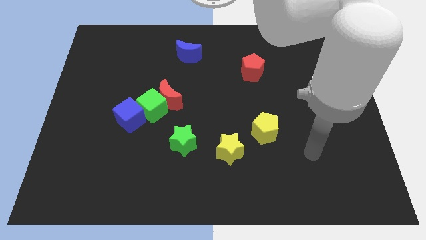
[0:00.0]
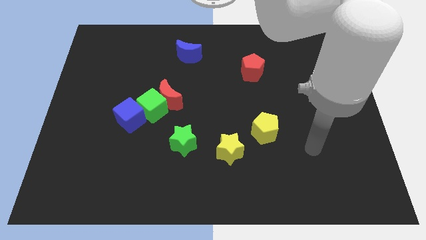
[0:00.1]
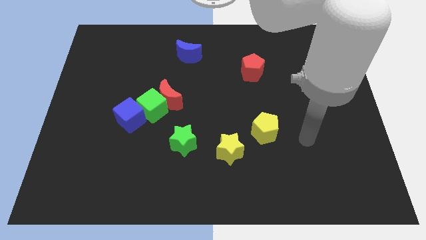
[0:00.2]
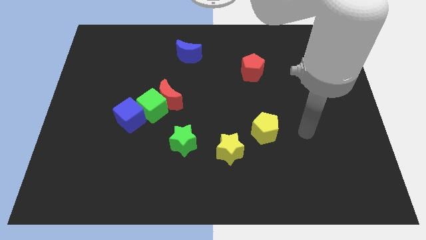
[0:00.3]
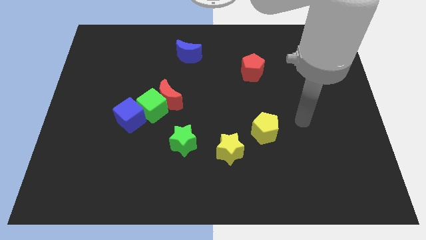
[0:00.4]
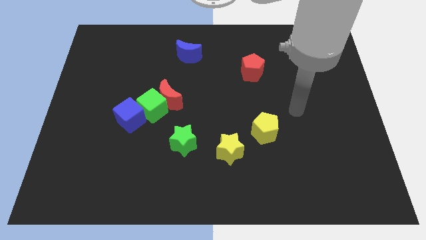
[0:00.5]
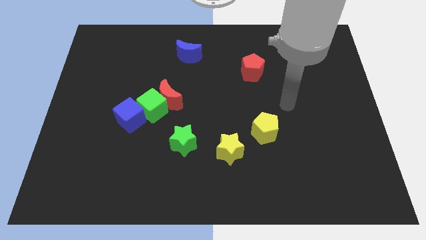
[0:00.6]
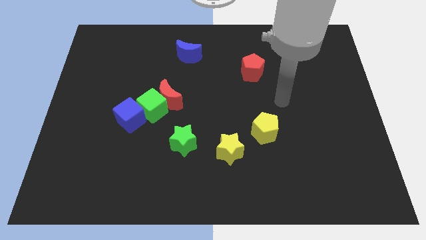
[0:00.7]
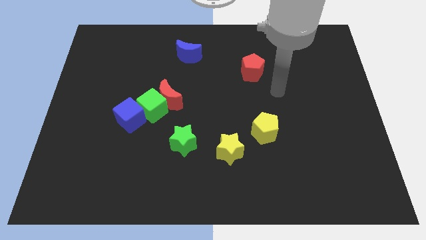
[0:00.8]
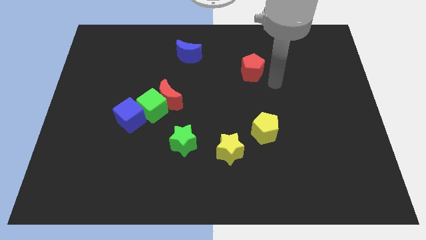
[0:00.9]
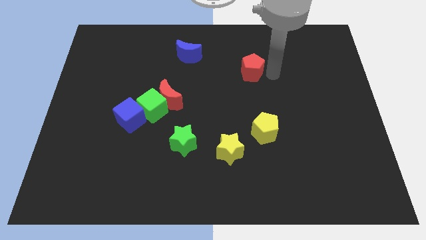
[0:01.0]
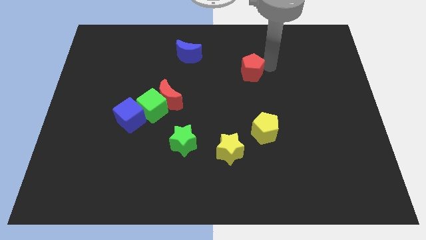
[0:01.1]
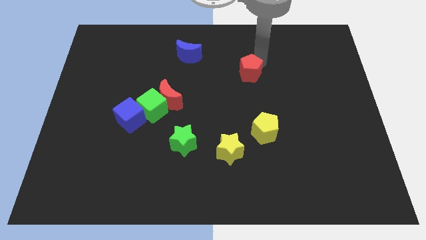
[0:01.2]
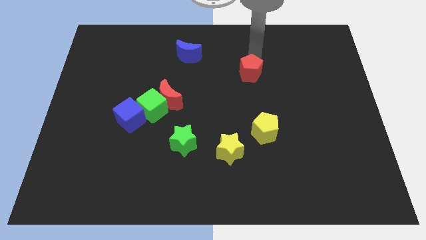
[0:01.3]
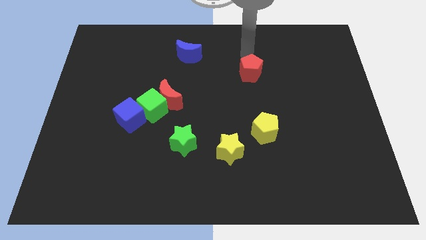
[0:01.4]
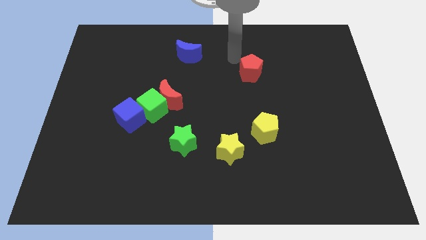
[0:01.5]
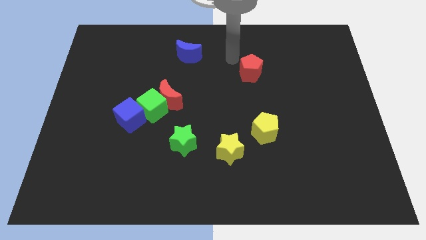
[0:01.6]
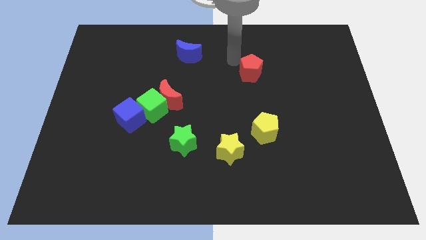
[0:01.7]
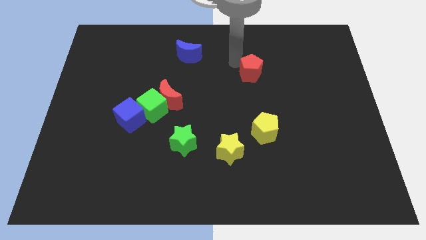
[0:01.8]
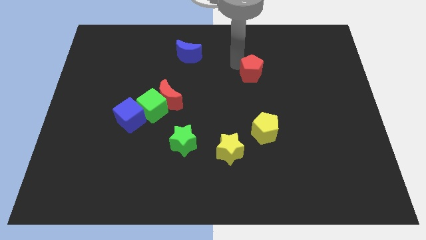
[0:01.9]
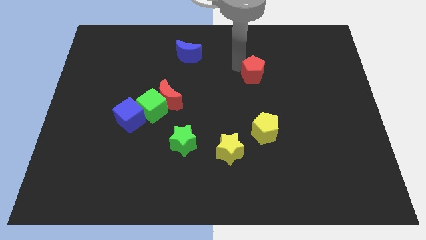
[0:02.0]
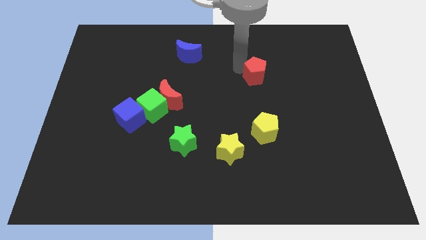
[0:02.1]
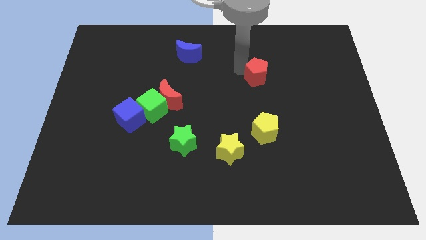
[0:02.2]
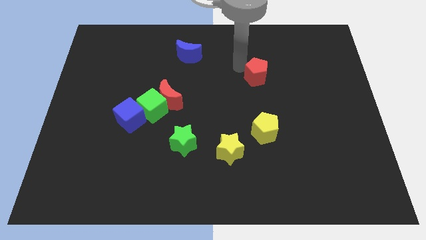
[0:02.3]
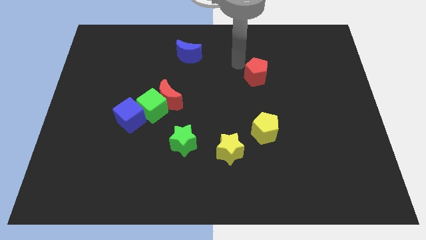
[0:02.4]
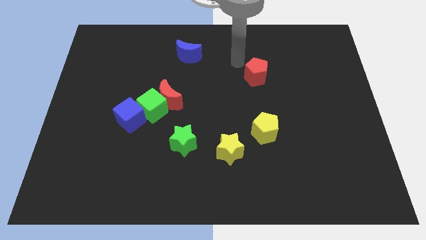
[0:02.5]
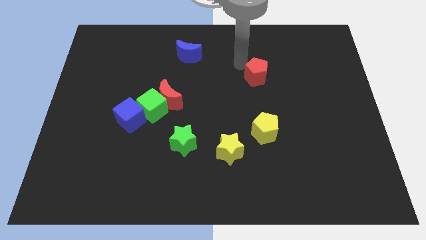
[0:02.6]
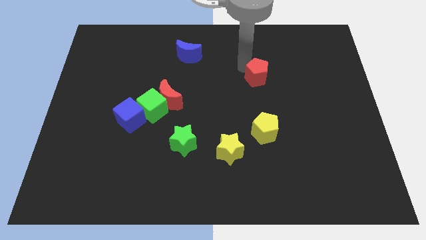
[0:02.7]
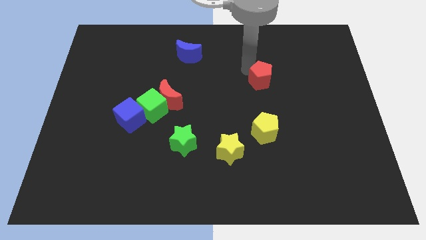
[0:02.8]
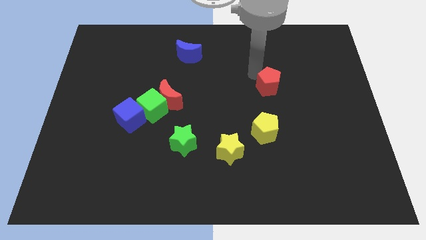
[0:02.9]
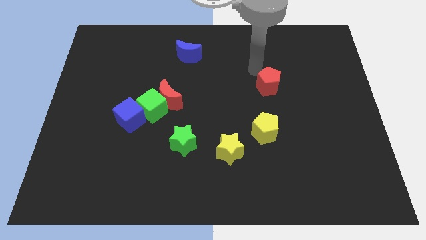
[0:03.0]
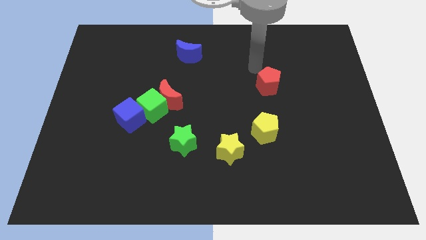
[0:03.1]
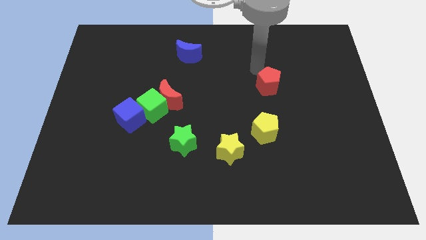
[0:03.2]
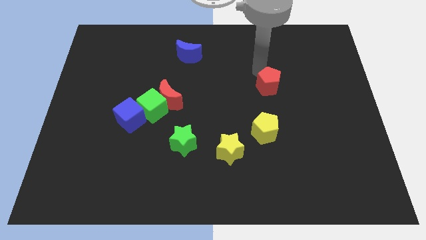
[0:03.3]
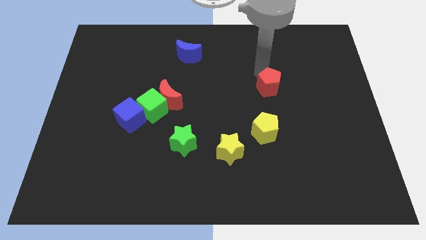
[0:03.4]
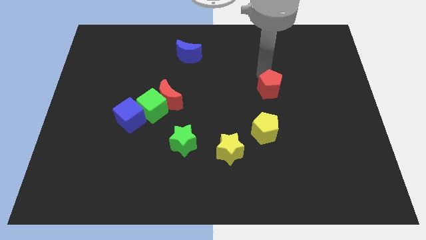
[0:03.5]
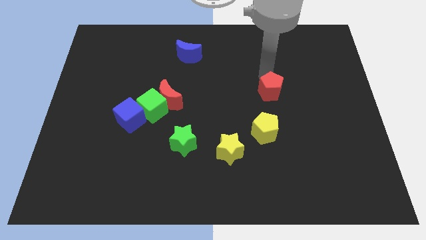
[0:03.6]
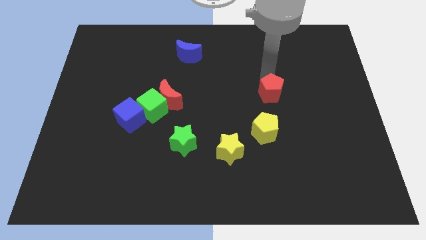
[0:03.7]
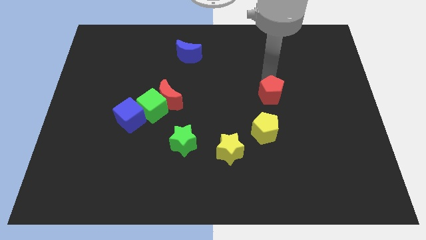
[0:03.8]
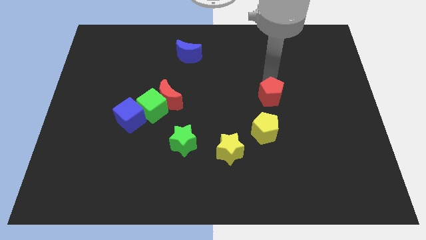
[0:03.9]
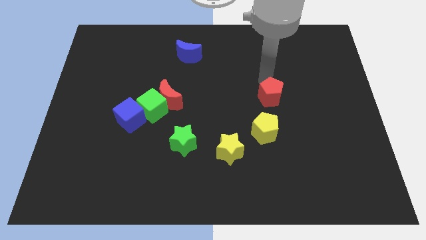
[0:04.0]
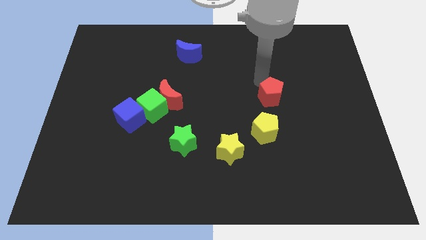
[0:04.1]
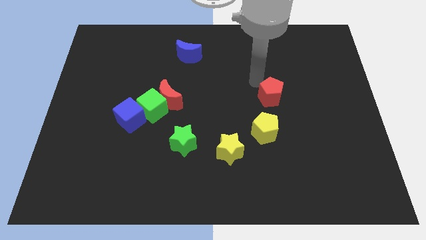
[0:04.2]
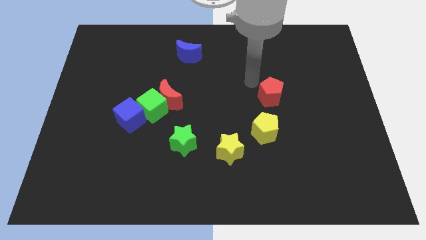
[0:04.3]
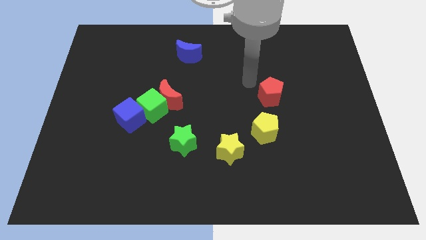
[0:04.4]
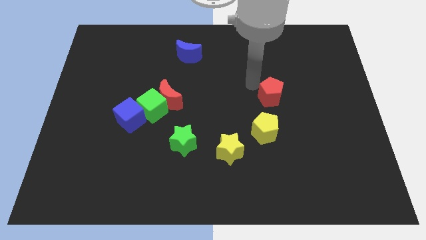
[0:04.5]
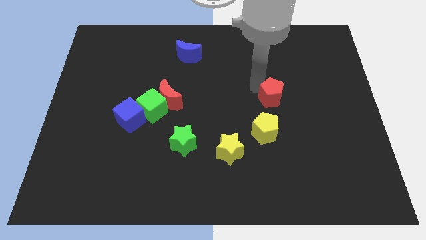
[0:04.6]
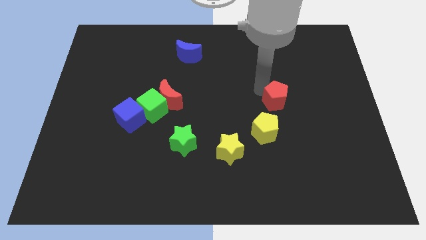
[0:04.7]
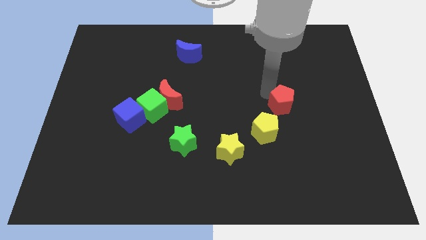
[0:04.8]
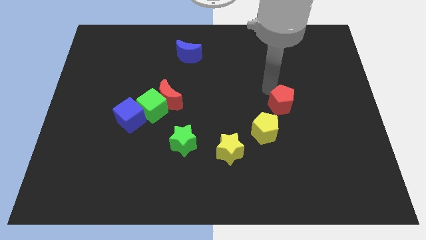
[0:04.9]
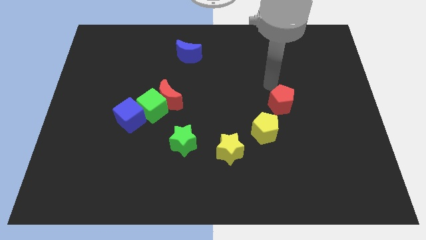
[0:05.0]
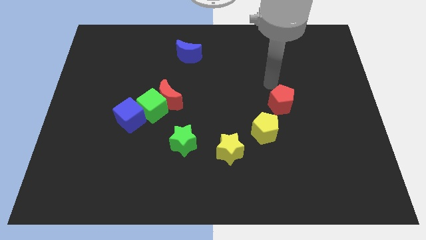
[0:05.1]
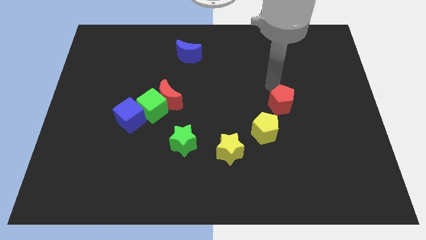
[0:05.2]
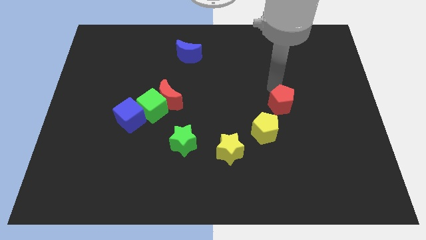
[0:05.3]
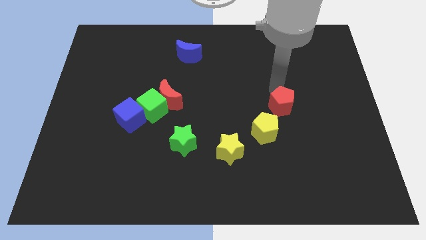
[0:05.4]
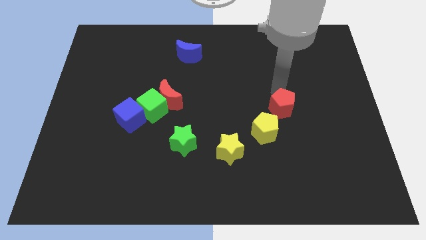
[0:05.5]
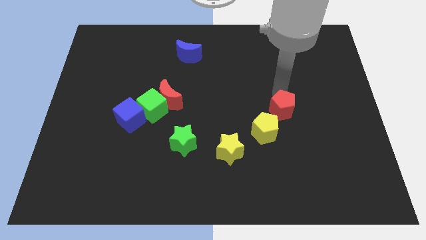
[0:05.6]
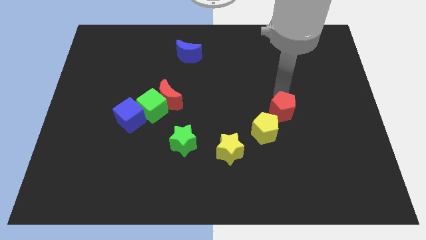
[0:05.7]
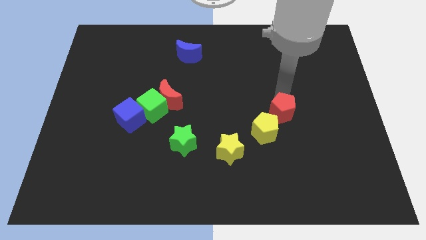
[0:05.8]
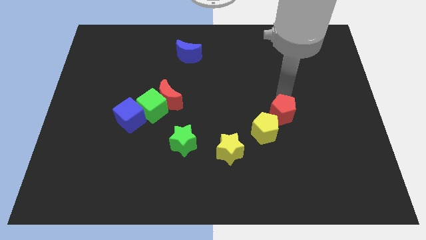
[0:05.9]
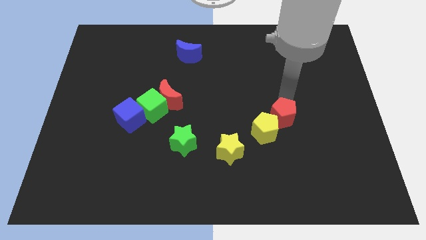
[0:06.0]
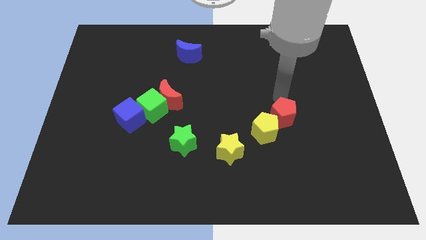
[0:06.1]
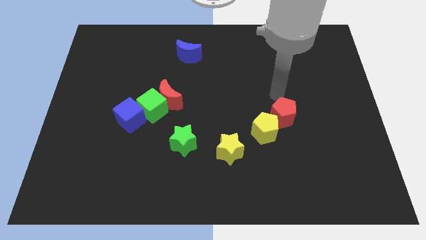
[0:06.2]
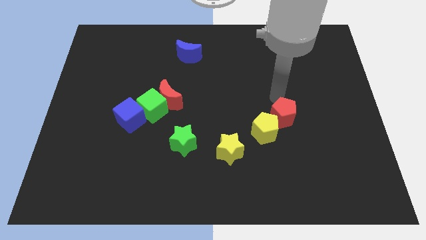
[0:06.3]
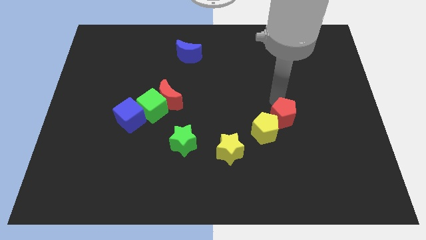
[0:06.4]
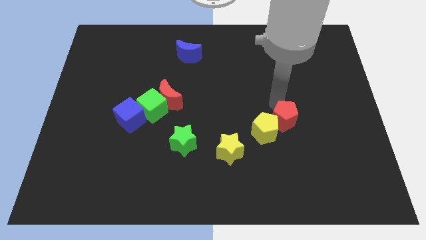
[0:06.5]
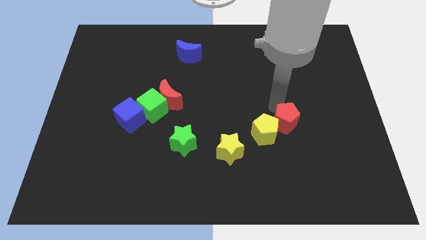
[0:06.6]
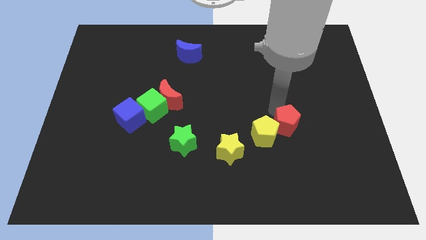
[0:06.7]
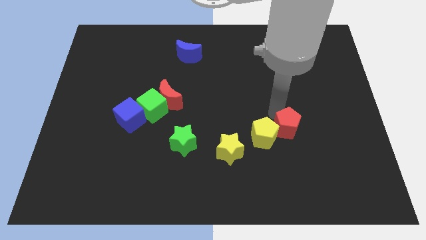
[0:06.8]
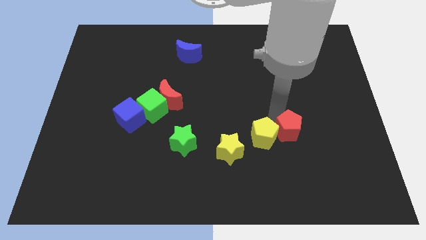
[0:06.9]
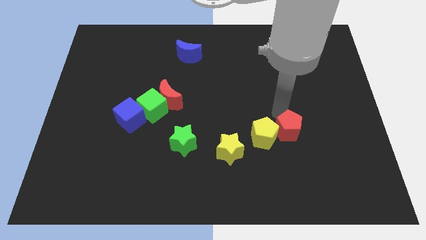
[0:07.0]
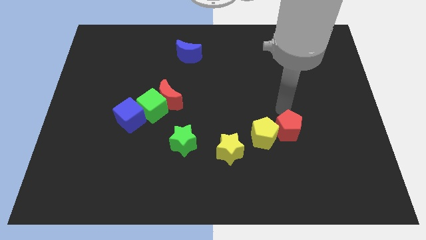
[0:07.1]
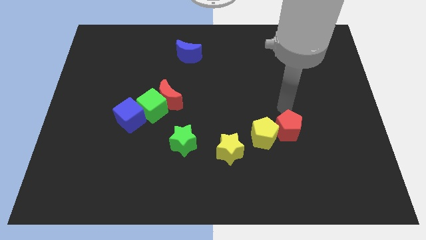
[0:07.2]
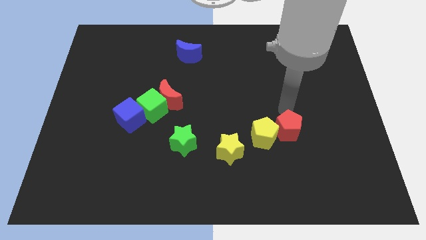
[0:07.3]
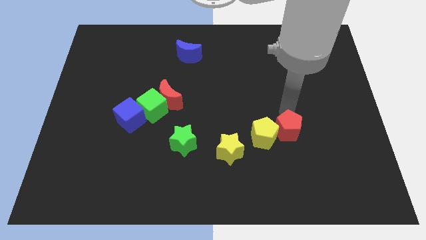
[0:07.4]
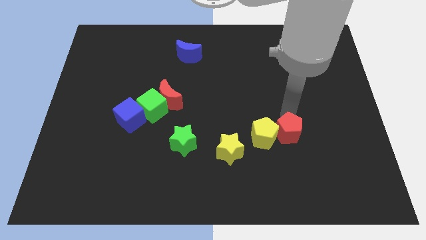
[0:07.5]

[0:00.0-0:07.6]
push the red pentagon to the bottom right of the yellow pentagon

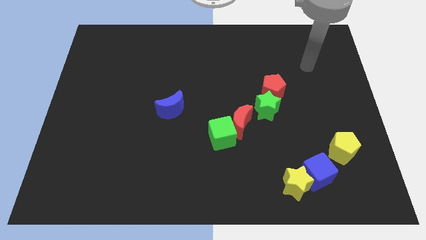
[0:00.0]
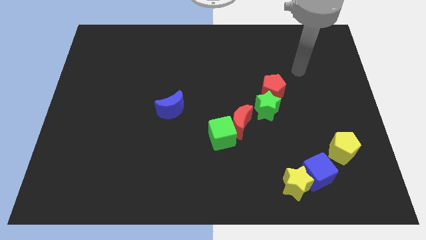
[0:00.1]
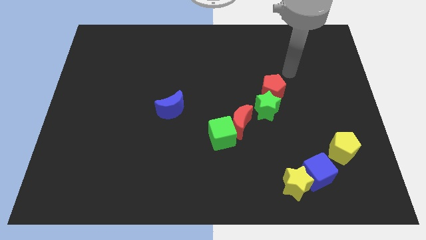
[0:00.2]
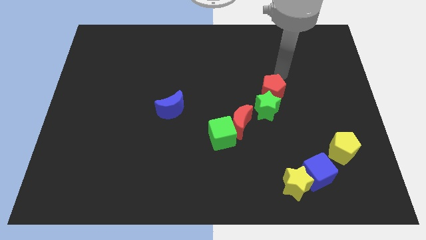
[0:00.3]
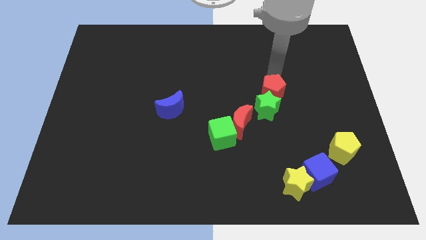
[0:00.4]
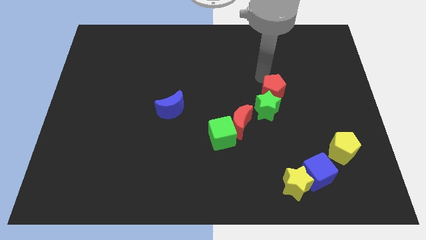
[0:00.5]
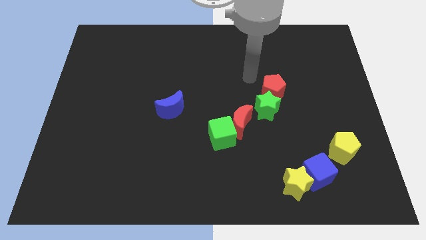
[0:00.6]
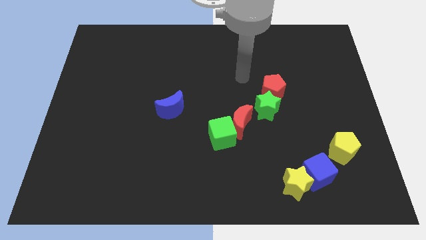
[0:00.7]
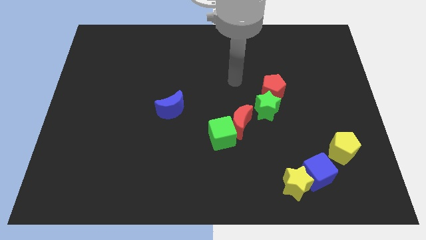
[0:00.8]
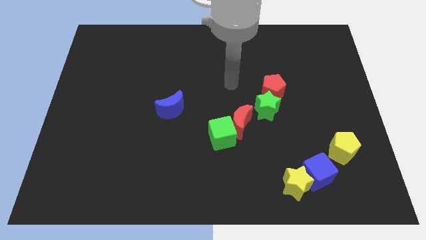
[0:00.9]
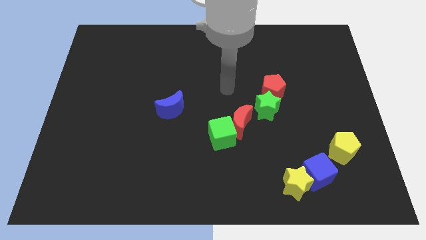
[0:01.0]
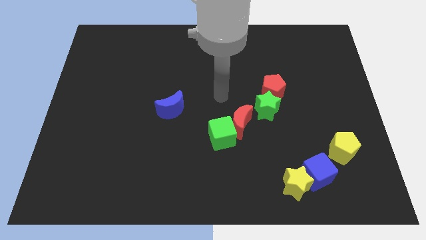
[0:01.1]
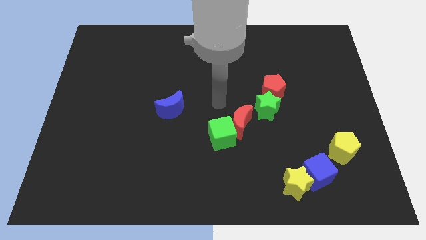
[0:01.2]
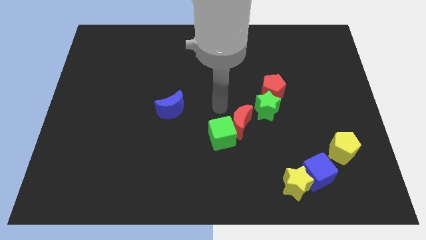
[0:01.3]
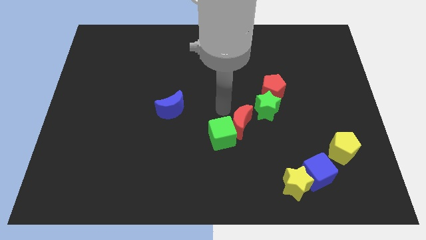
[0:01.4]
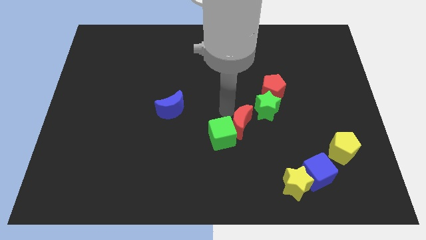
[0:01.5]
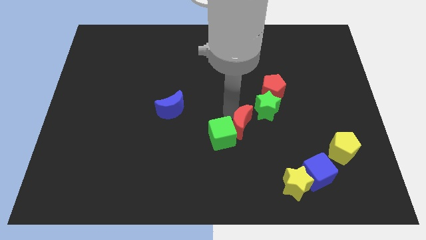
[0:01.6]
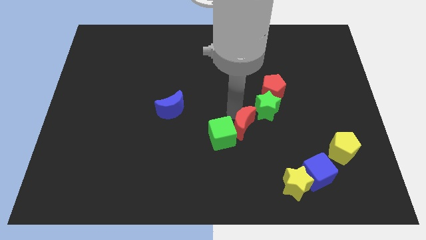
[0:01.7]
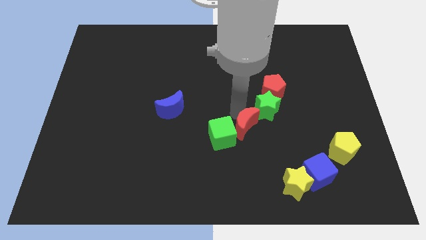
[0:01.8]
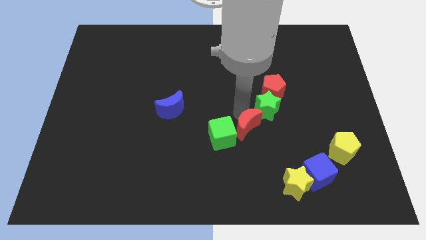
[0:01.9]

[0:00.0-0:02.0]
push the red moon below the green star
